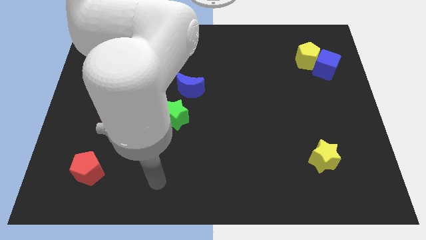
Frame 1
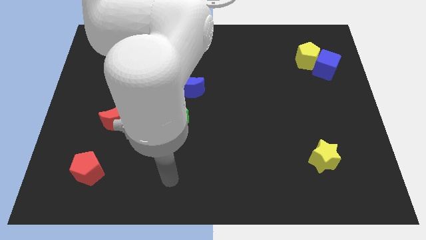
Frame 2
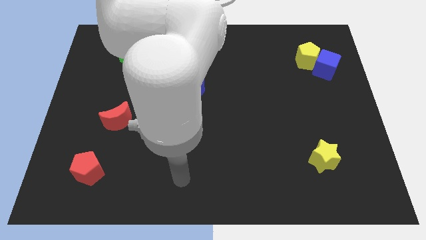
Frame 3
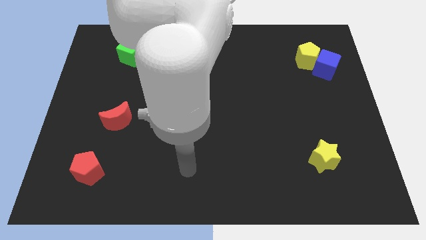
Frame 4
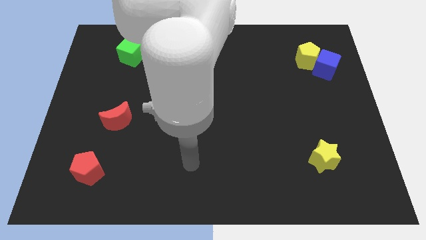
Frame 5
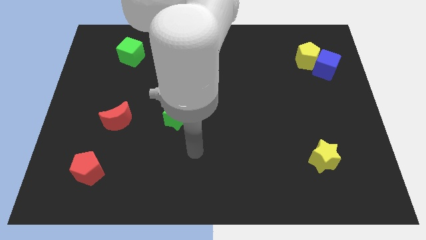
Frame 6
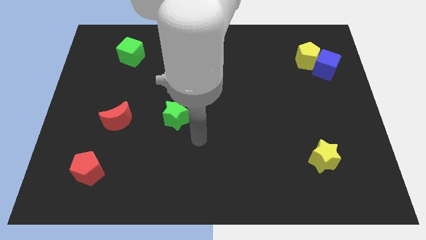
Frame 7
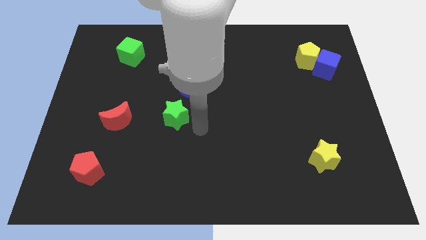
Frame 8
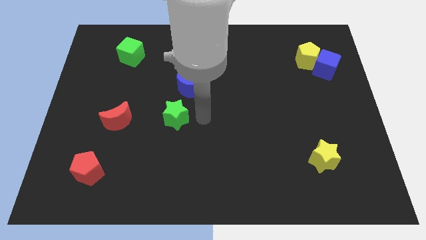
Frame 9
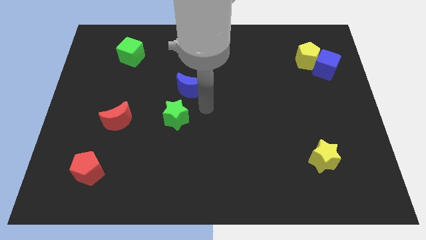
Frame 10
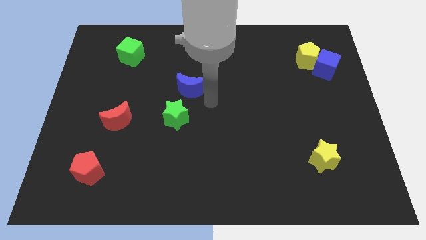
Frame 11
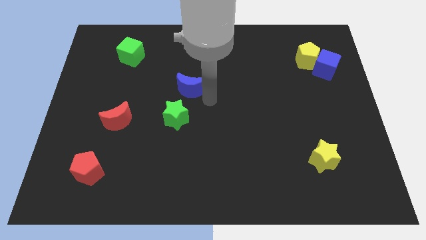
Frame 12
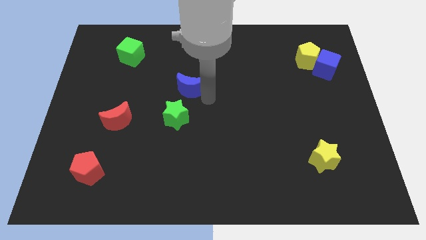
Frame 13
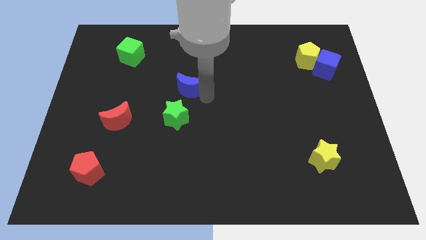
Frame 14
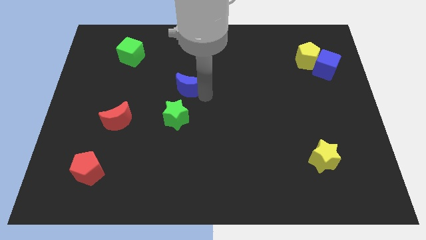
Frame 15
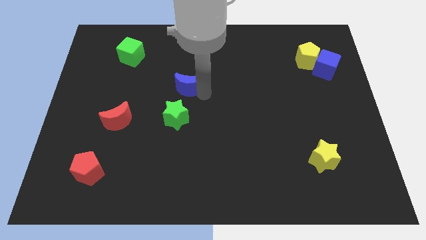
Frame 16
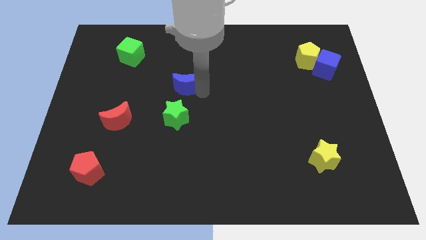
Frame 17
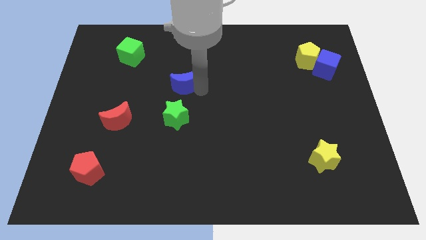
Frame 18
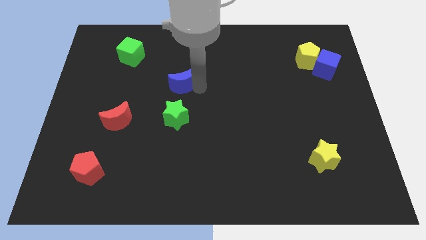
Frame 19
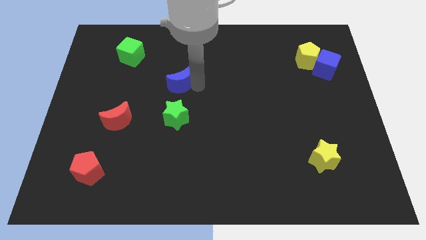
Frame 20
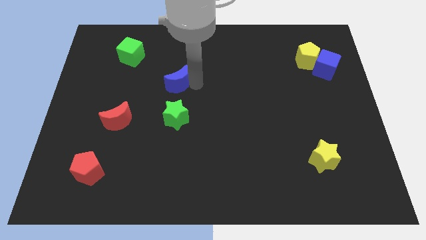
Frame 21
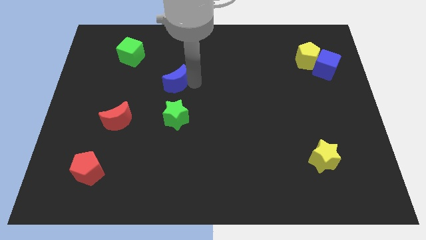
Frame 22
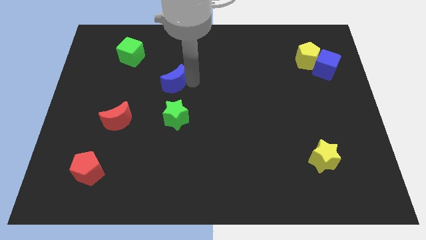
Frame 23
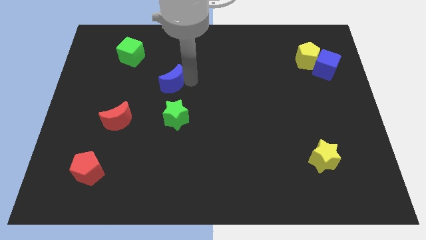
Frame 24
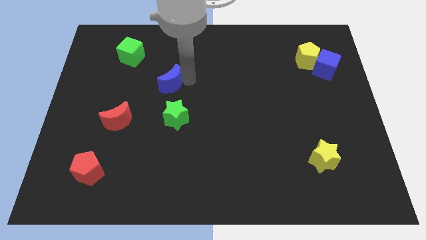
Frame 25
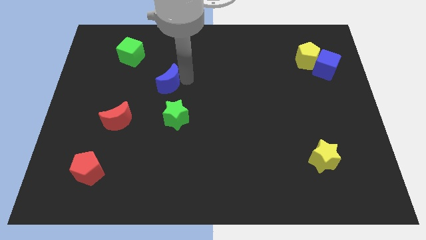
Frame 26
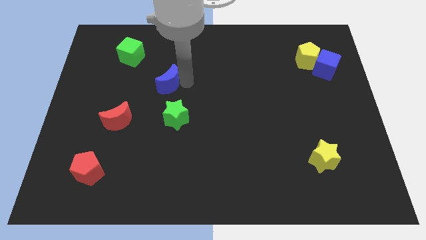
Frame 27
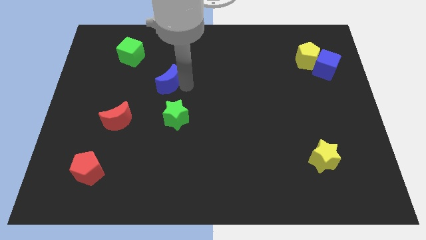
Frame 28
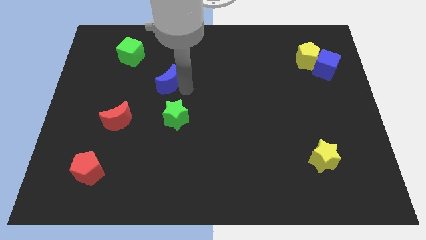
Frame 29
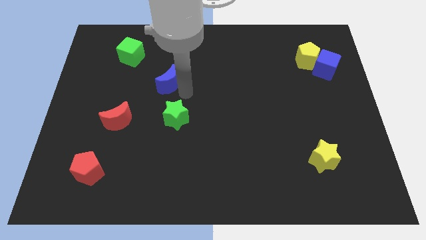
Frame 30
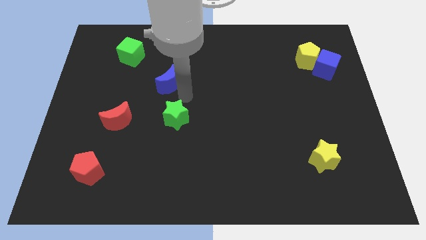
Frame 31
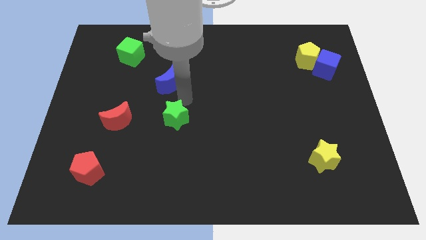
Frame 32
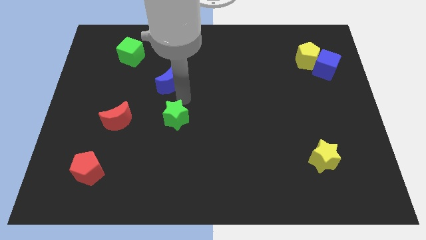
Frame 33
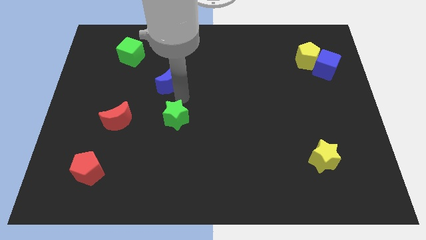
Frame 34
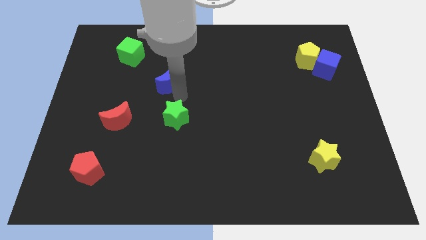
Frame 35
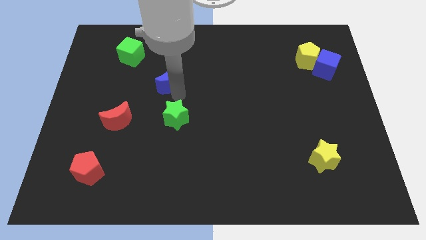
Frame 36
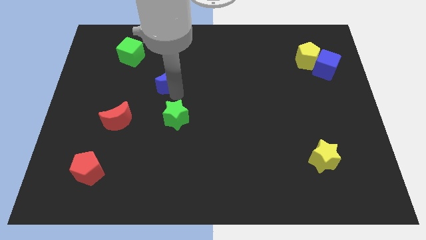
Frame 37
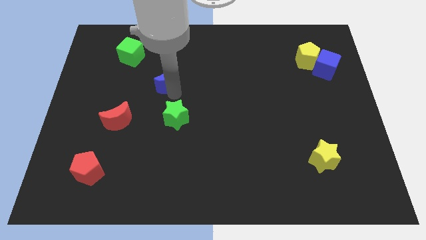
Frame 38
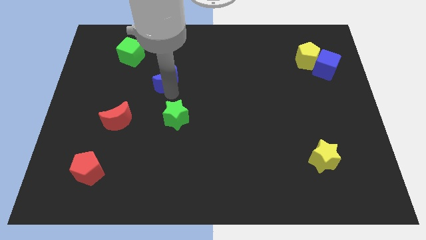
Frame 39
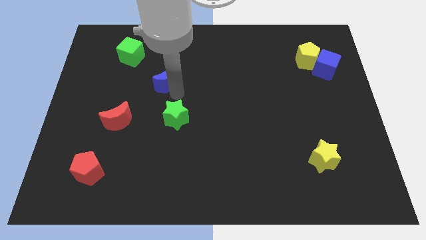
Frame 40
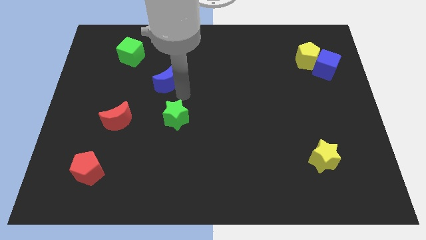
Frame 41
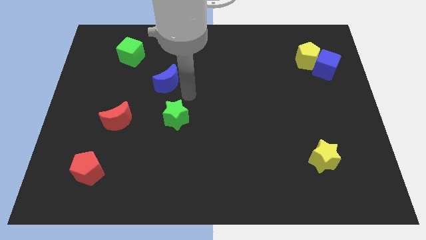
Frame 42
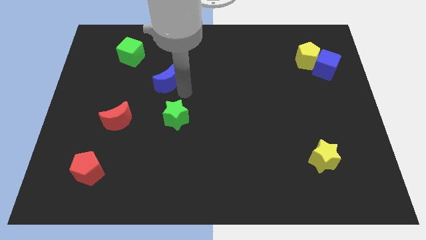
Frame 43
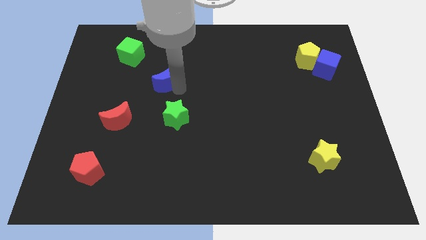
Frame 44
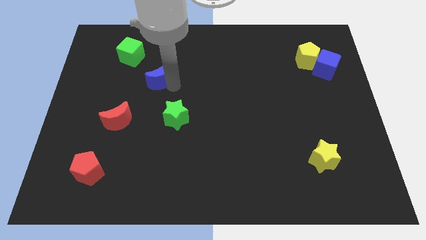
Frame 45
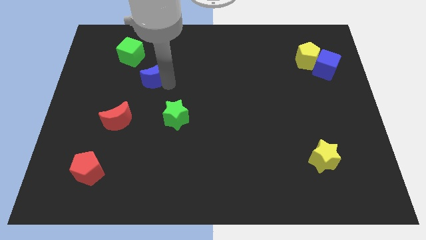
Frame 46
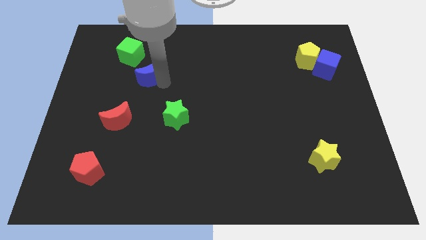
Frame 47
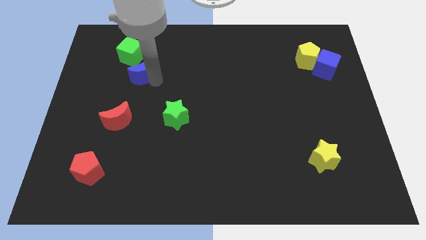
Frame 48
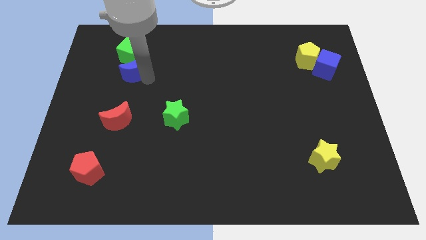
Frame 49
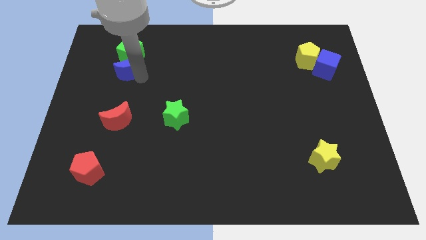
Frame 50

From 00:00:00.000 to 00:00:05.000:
put the blue moon close to the green cube

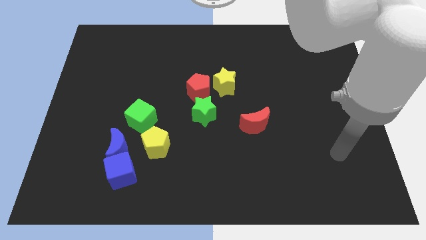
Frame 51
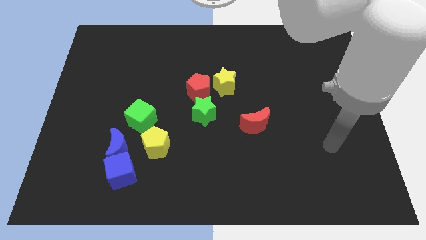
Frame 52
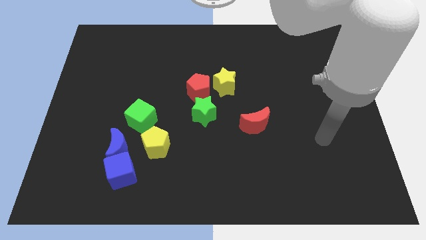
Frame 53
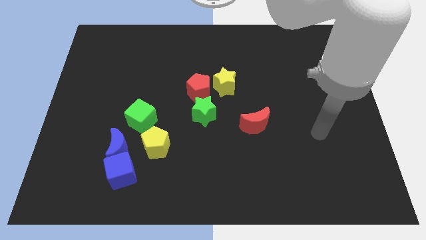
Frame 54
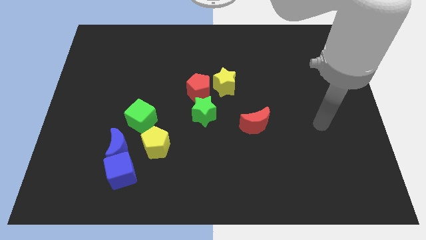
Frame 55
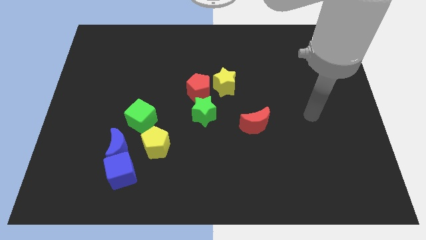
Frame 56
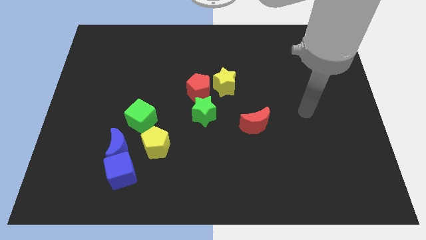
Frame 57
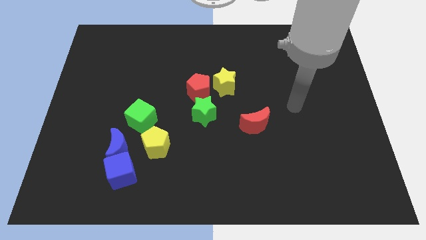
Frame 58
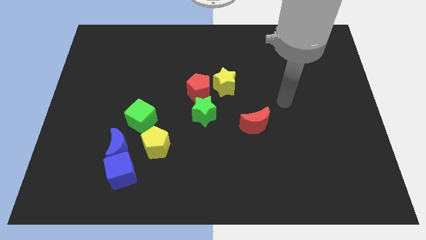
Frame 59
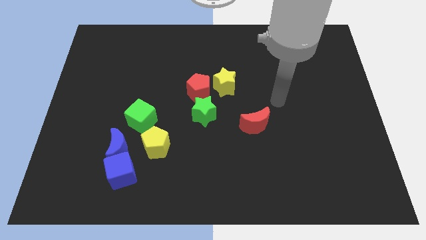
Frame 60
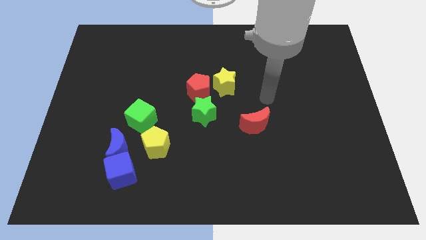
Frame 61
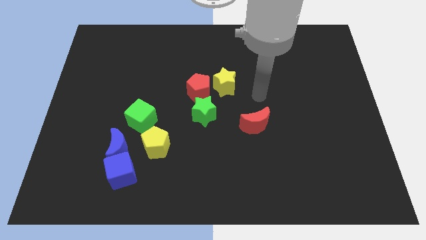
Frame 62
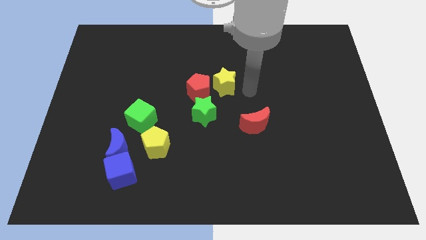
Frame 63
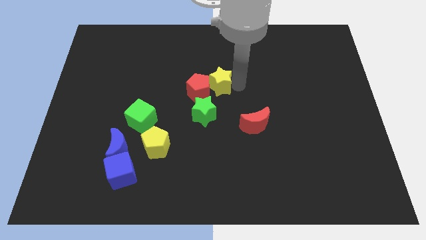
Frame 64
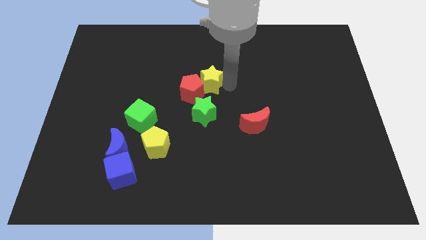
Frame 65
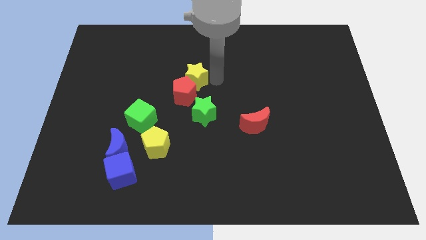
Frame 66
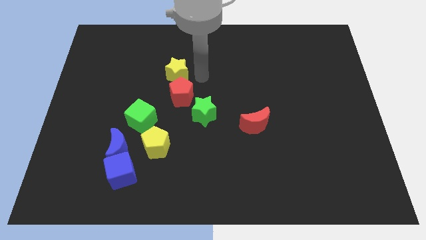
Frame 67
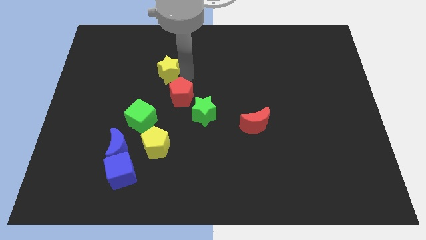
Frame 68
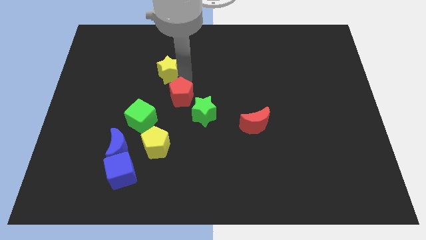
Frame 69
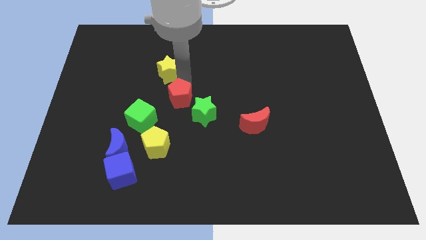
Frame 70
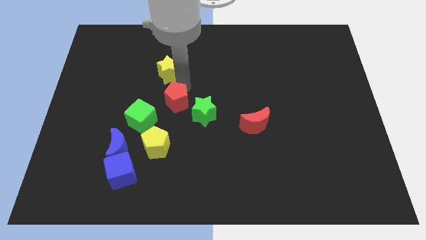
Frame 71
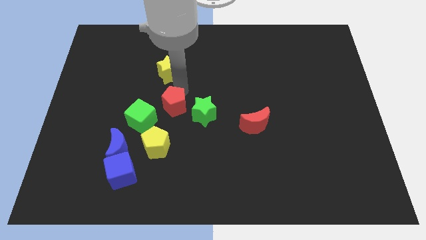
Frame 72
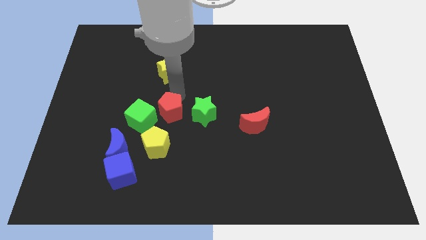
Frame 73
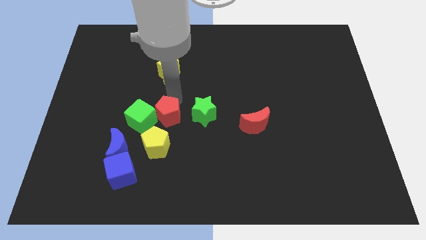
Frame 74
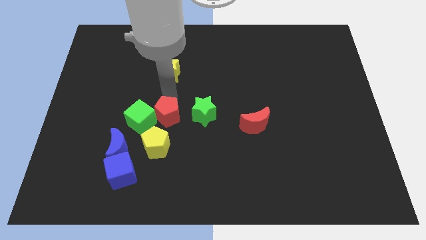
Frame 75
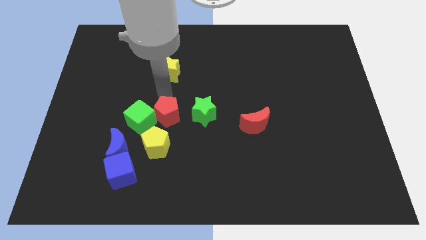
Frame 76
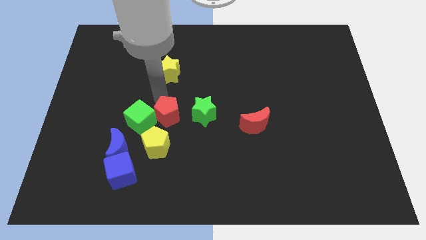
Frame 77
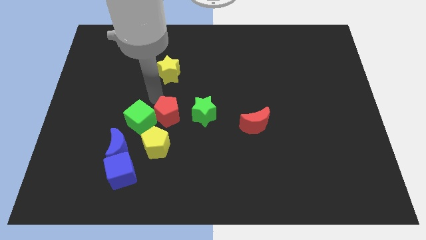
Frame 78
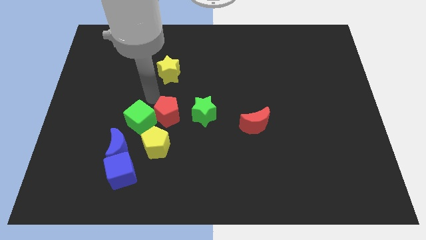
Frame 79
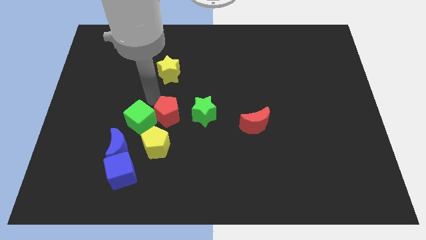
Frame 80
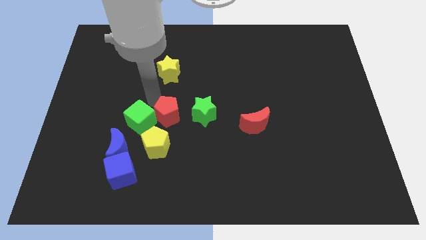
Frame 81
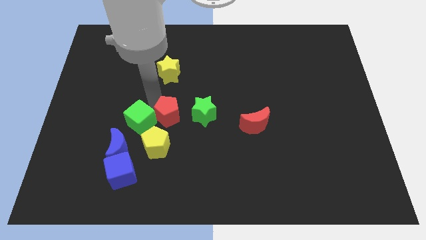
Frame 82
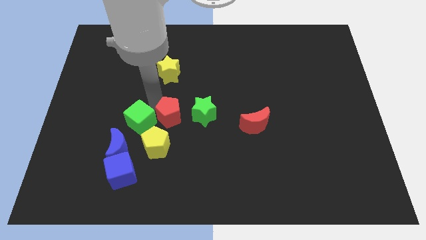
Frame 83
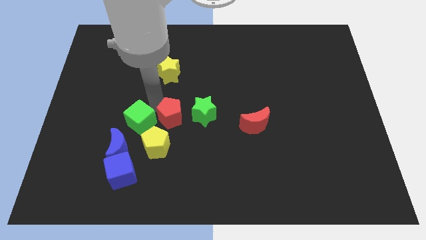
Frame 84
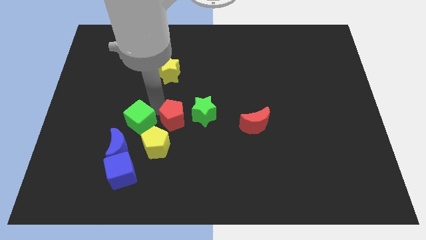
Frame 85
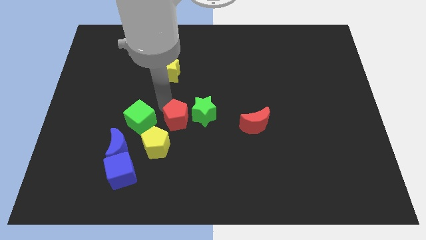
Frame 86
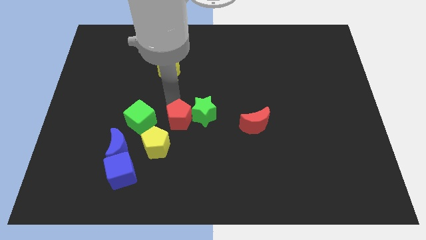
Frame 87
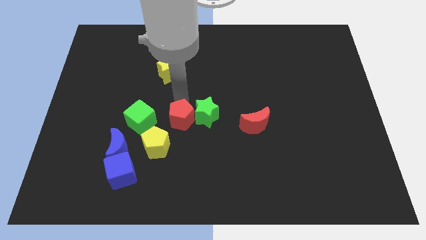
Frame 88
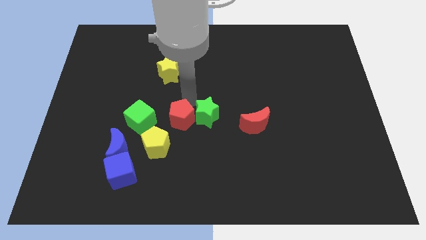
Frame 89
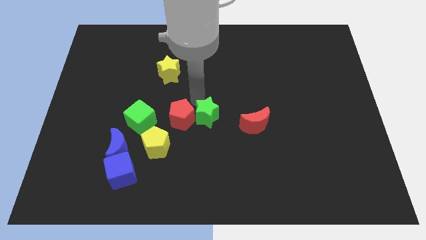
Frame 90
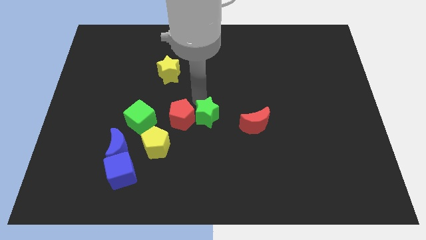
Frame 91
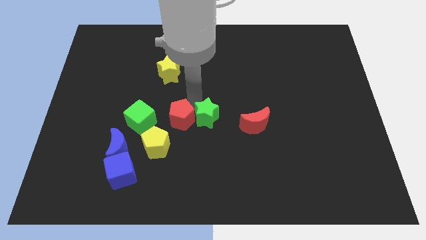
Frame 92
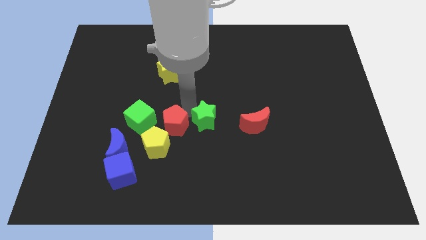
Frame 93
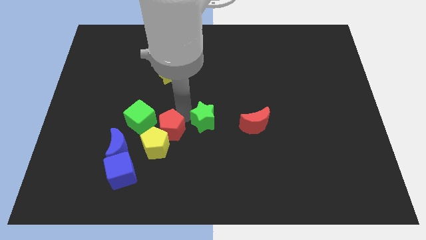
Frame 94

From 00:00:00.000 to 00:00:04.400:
put the red pentagon to the yellow pentagon
